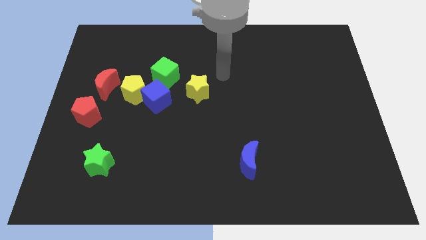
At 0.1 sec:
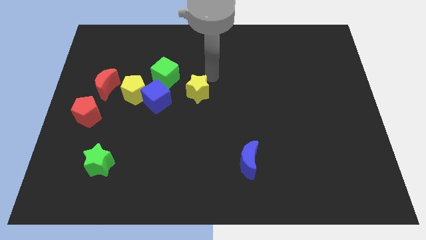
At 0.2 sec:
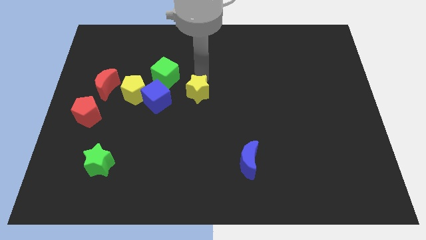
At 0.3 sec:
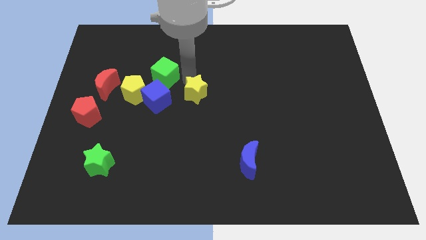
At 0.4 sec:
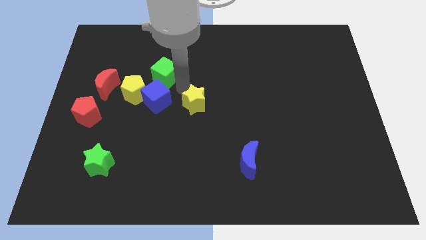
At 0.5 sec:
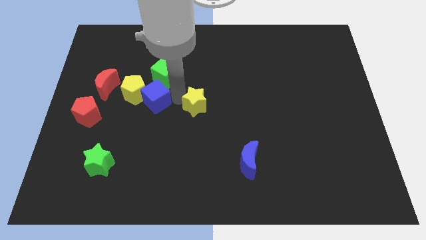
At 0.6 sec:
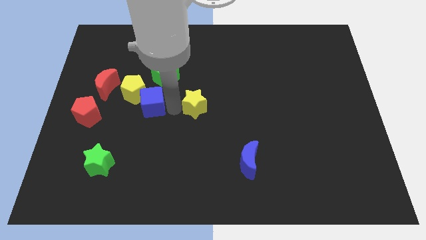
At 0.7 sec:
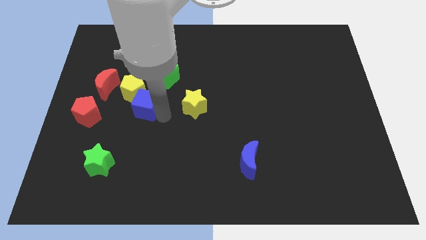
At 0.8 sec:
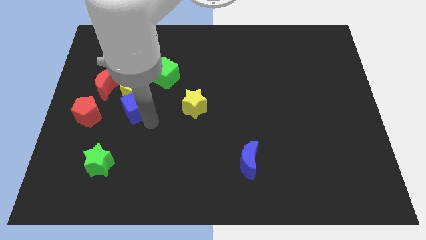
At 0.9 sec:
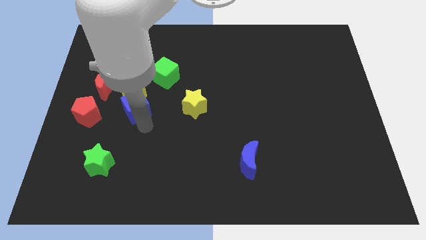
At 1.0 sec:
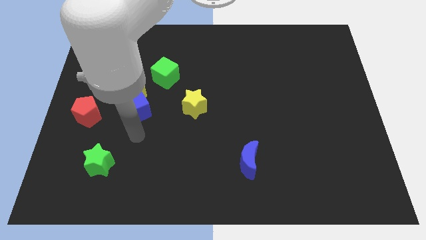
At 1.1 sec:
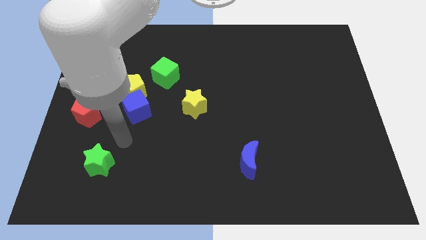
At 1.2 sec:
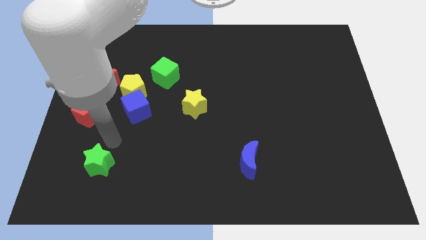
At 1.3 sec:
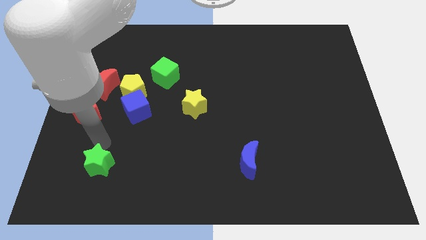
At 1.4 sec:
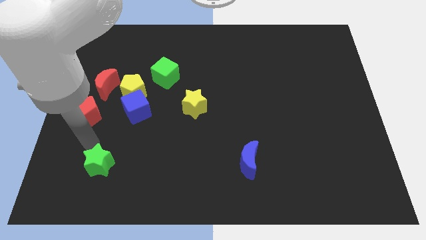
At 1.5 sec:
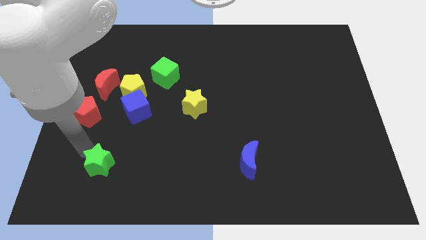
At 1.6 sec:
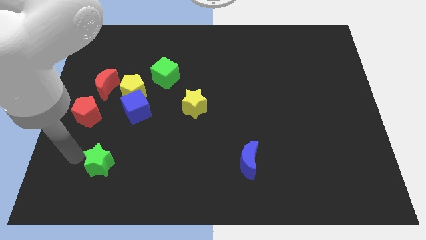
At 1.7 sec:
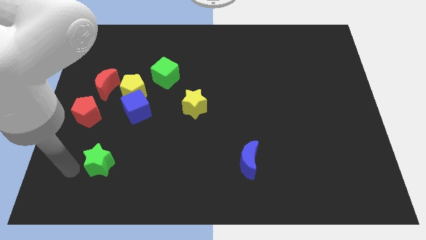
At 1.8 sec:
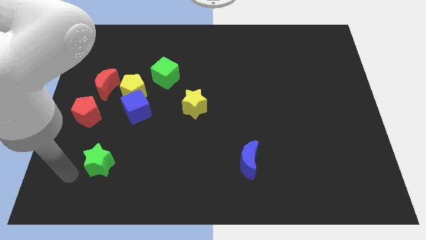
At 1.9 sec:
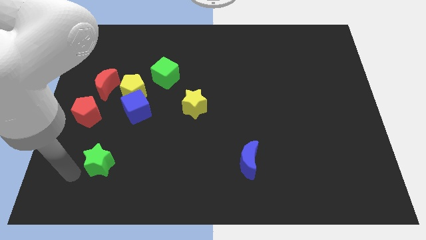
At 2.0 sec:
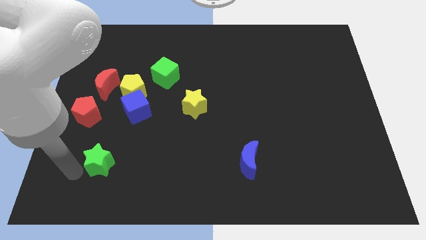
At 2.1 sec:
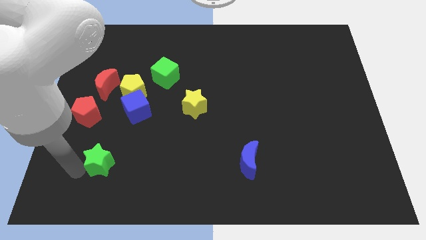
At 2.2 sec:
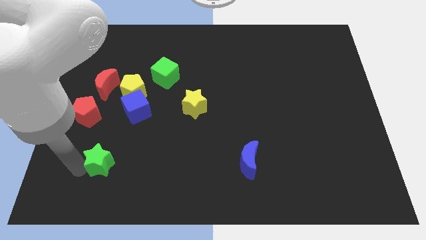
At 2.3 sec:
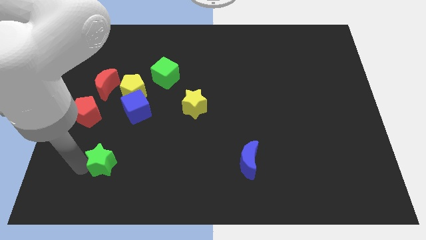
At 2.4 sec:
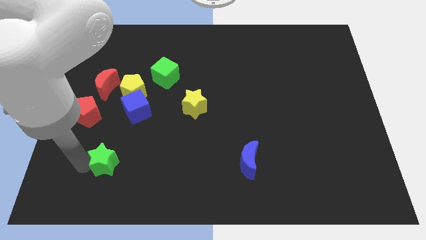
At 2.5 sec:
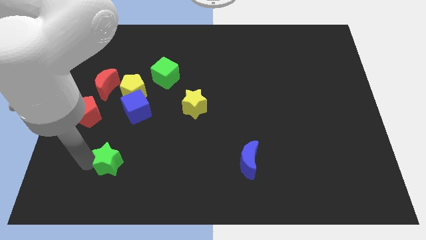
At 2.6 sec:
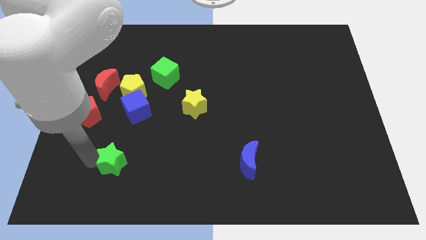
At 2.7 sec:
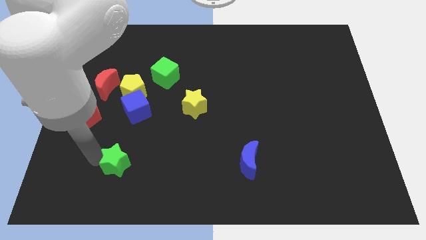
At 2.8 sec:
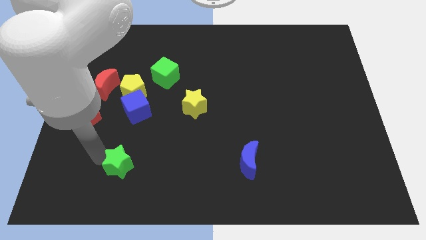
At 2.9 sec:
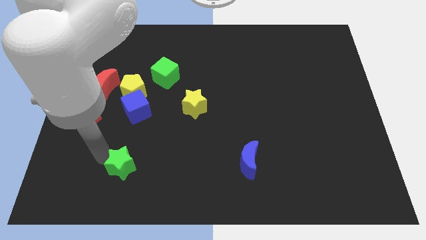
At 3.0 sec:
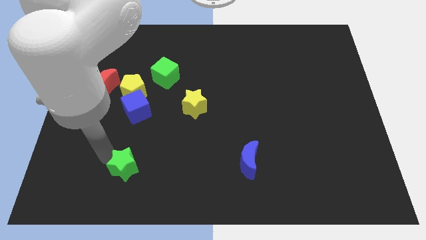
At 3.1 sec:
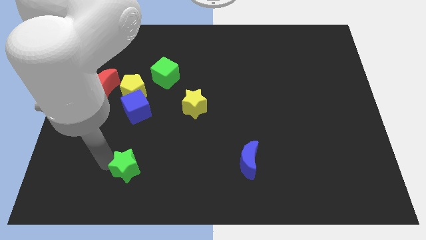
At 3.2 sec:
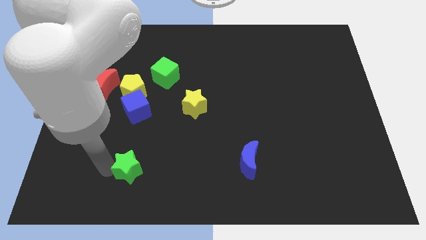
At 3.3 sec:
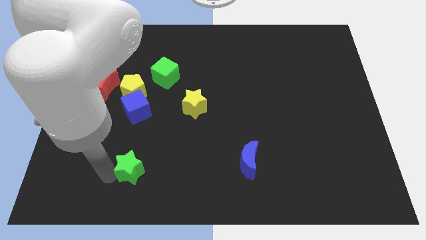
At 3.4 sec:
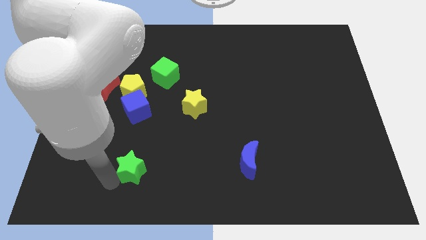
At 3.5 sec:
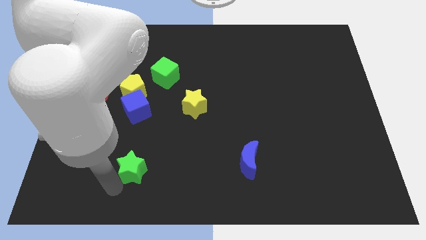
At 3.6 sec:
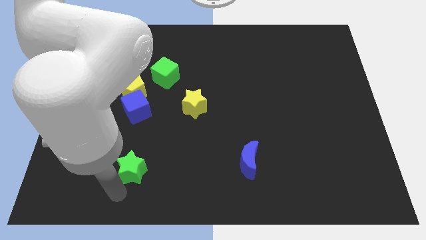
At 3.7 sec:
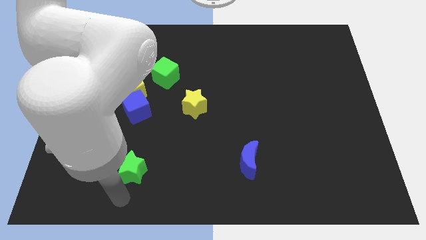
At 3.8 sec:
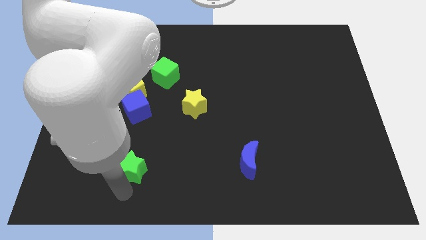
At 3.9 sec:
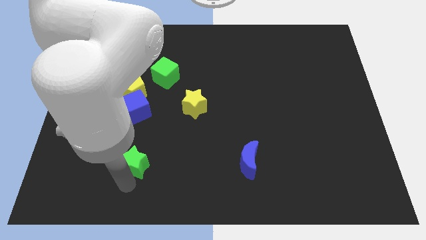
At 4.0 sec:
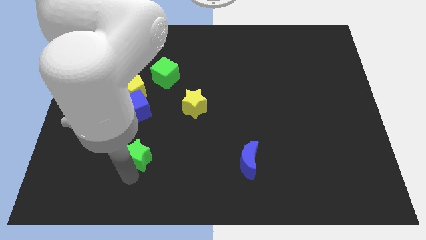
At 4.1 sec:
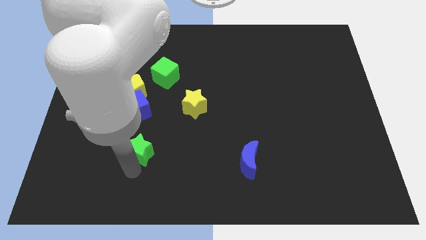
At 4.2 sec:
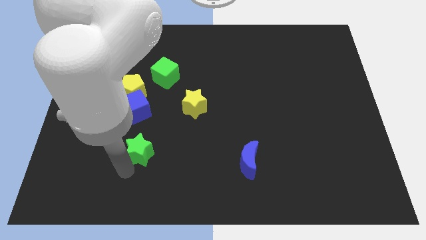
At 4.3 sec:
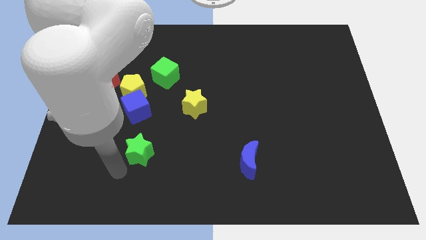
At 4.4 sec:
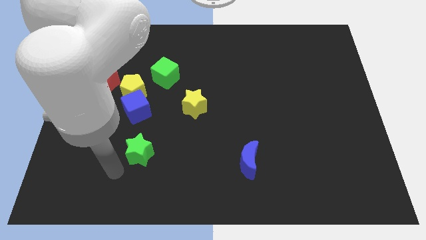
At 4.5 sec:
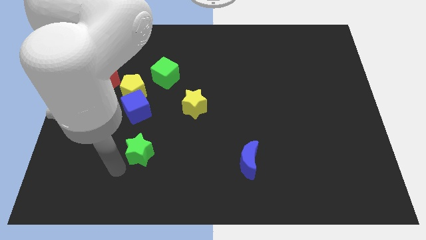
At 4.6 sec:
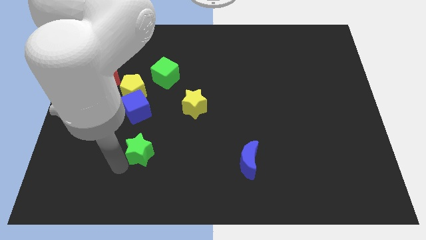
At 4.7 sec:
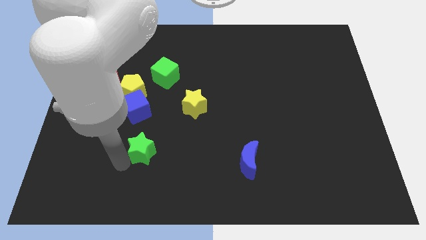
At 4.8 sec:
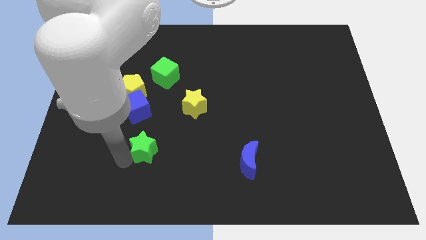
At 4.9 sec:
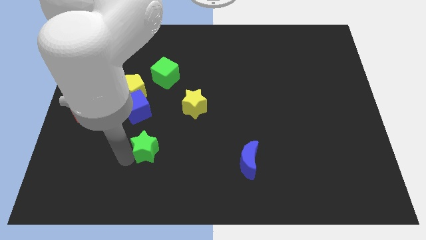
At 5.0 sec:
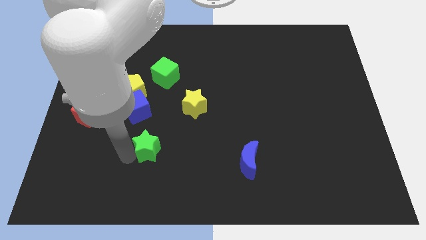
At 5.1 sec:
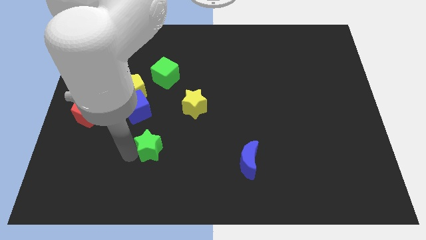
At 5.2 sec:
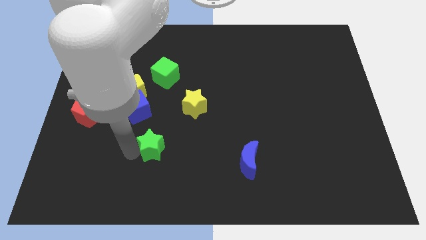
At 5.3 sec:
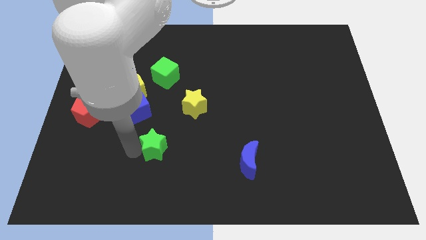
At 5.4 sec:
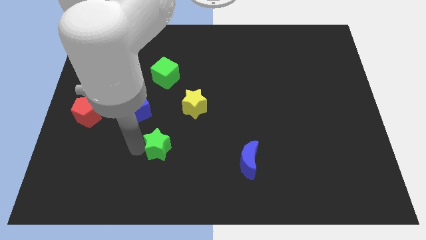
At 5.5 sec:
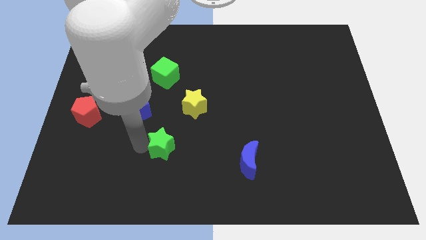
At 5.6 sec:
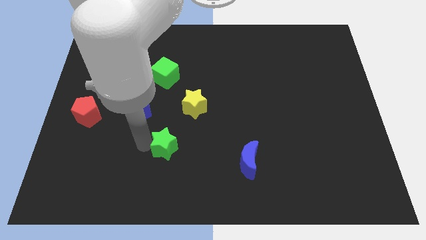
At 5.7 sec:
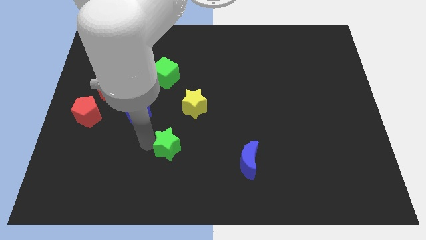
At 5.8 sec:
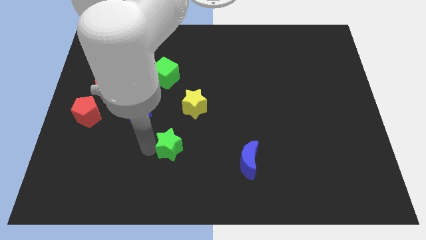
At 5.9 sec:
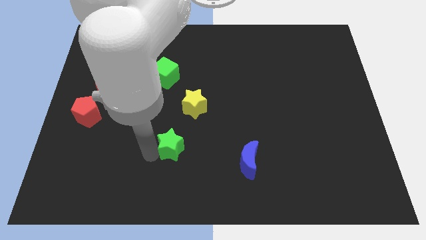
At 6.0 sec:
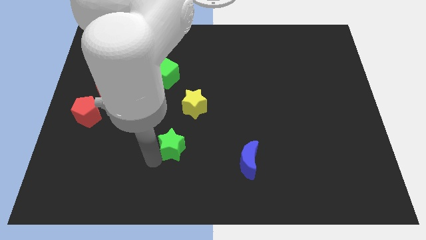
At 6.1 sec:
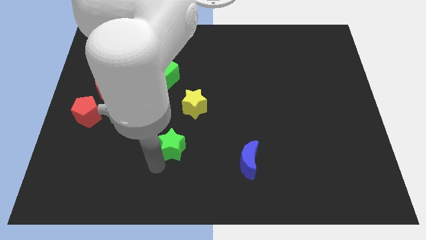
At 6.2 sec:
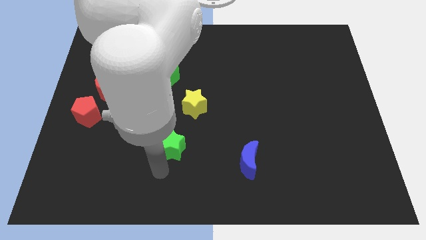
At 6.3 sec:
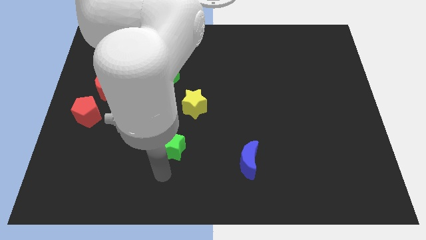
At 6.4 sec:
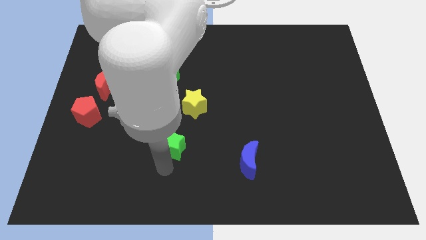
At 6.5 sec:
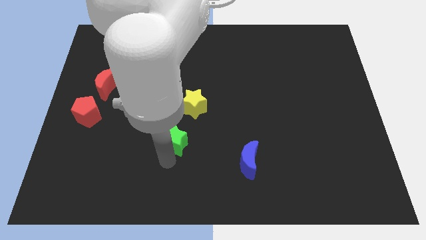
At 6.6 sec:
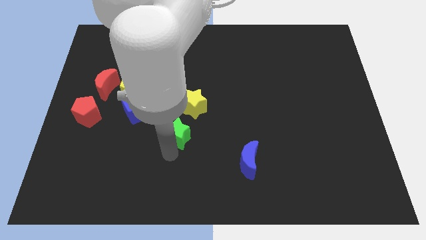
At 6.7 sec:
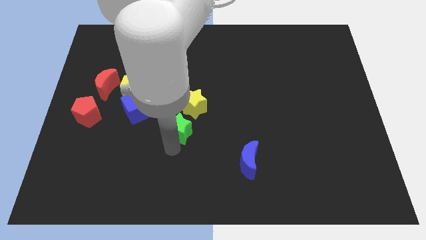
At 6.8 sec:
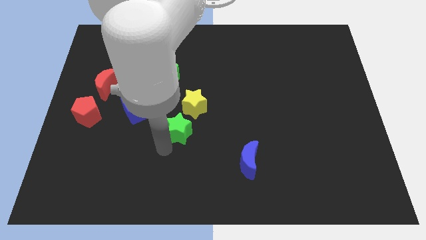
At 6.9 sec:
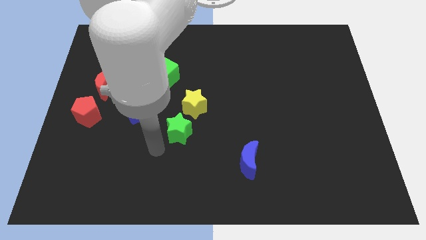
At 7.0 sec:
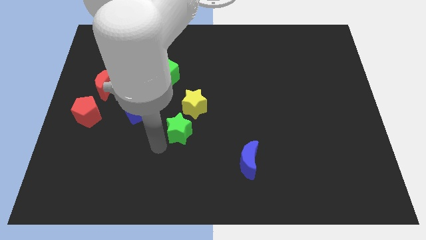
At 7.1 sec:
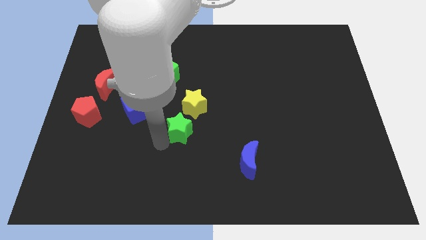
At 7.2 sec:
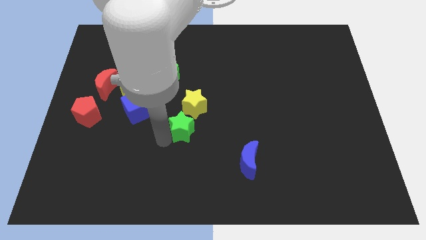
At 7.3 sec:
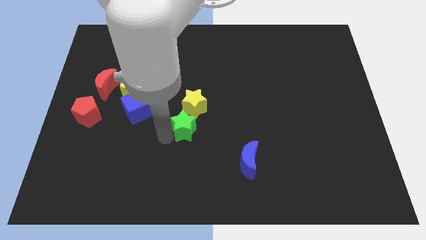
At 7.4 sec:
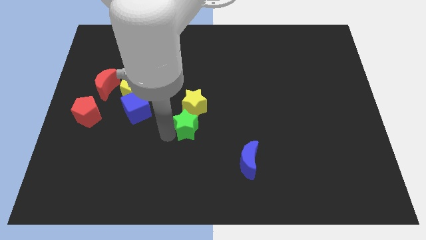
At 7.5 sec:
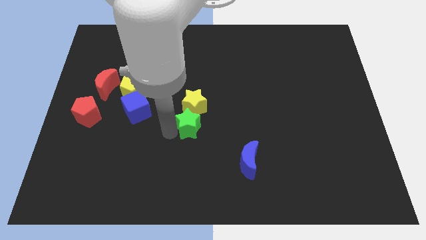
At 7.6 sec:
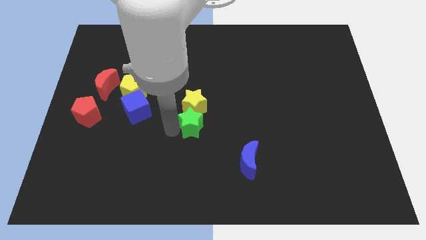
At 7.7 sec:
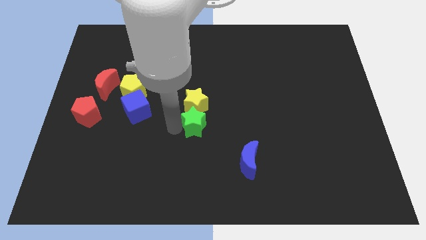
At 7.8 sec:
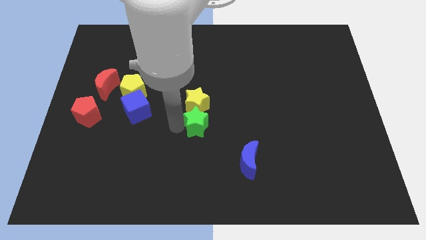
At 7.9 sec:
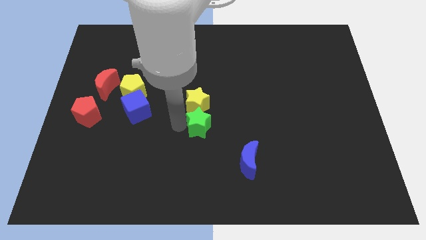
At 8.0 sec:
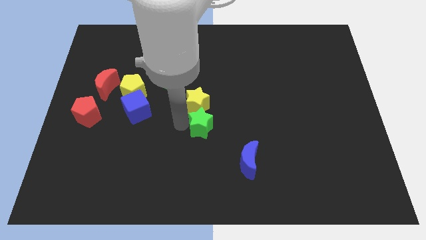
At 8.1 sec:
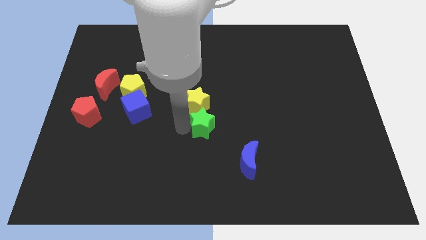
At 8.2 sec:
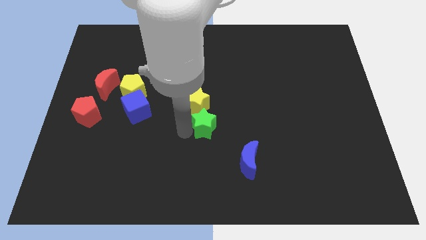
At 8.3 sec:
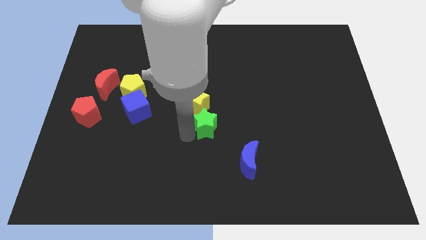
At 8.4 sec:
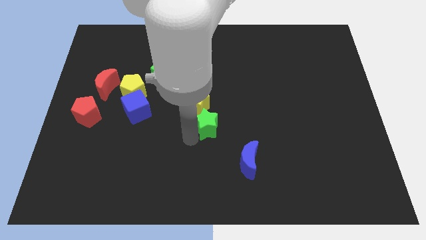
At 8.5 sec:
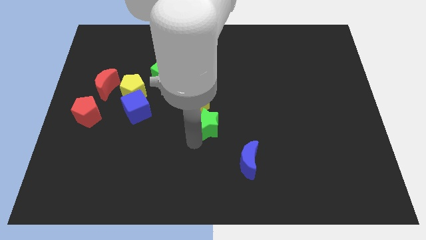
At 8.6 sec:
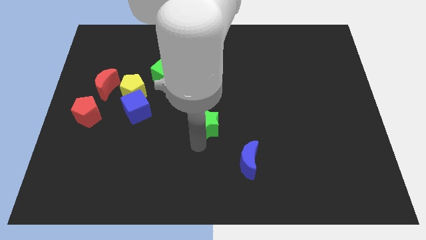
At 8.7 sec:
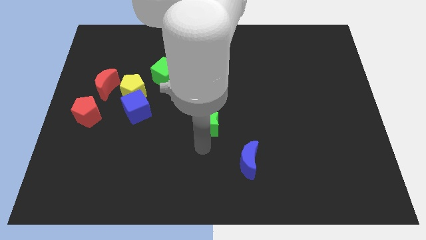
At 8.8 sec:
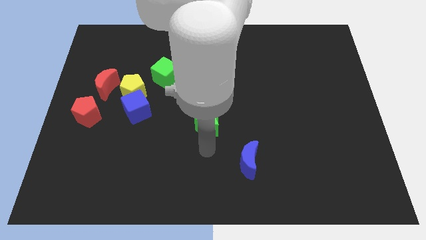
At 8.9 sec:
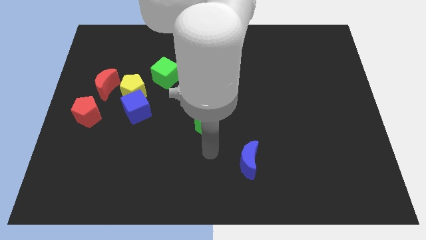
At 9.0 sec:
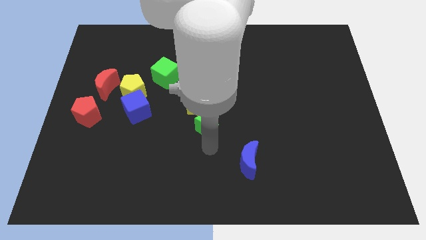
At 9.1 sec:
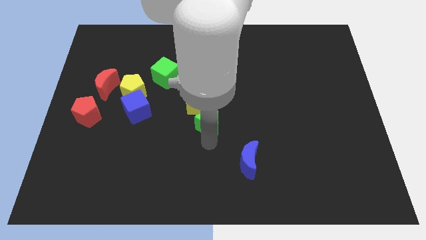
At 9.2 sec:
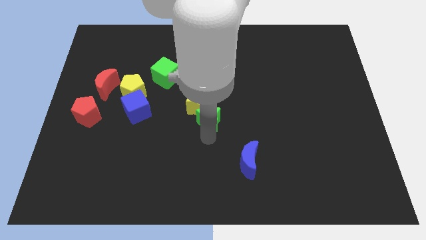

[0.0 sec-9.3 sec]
slide the green star up and to the right
